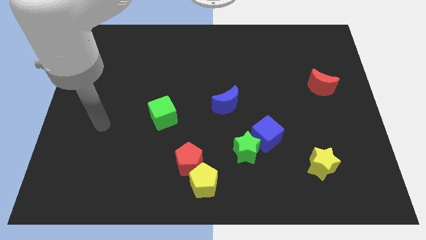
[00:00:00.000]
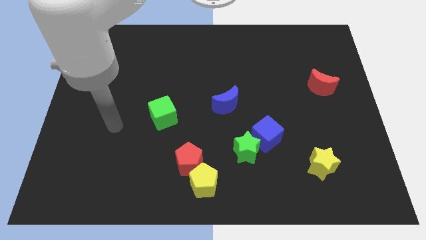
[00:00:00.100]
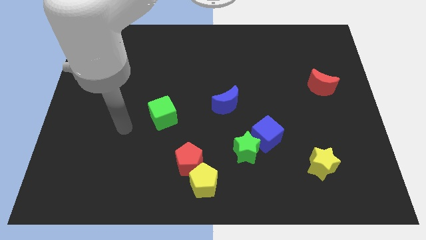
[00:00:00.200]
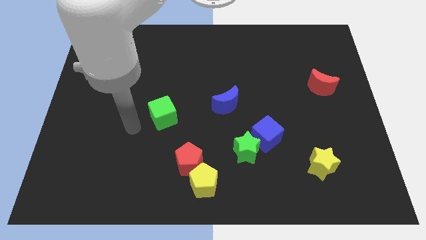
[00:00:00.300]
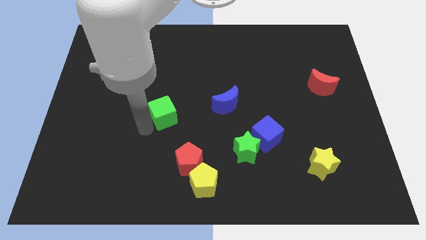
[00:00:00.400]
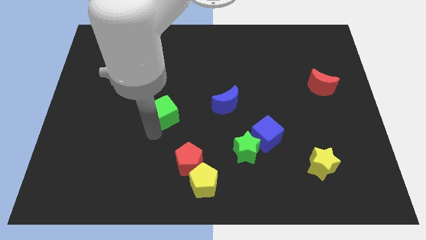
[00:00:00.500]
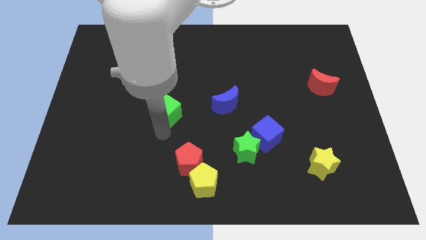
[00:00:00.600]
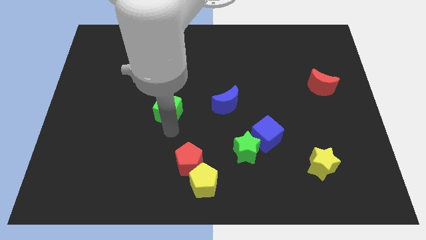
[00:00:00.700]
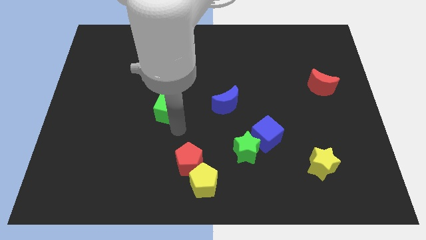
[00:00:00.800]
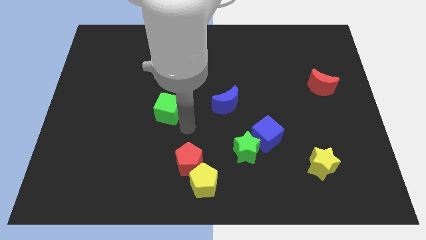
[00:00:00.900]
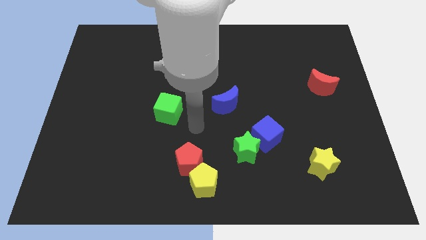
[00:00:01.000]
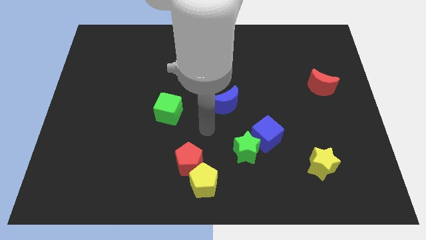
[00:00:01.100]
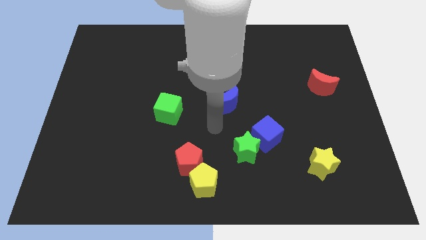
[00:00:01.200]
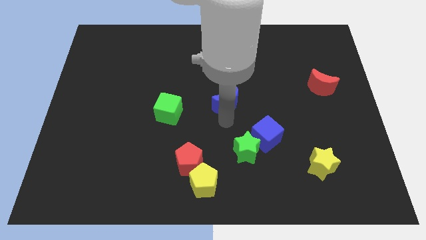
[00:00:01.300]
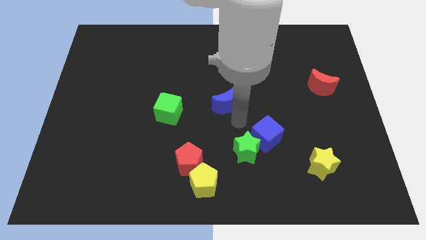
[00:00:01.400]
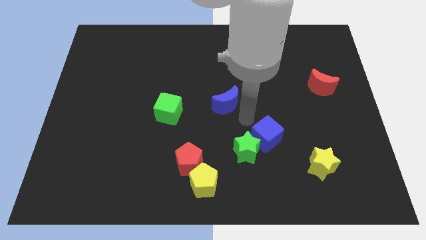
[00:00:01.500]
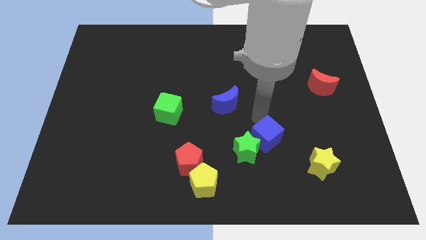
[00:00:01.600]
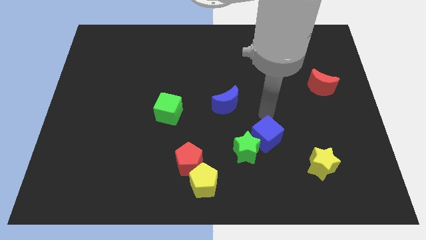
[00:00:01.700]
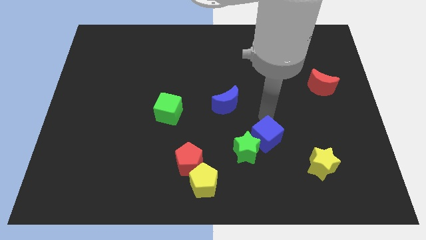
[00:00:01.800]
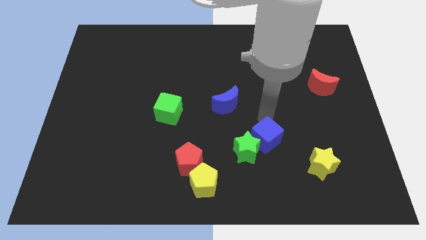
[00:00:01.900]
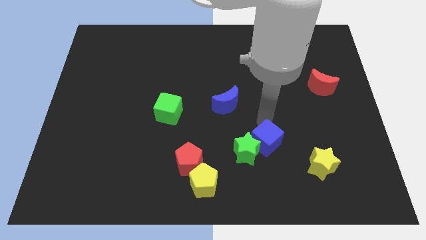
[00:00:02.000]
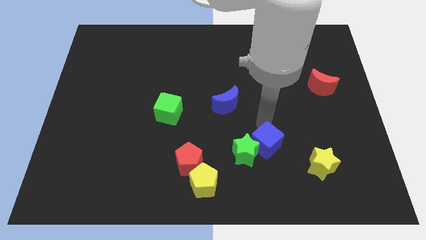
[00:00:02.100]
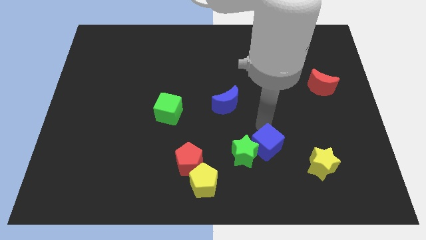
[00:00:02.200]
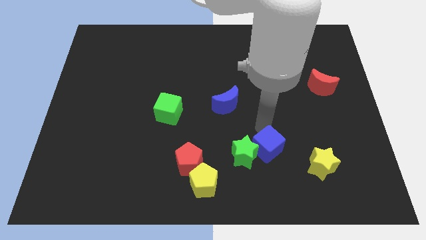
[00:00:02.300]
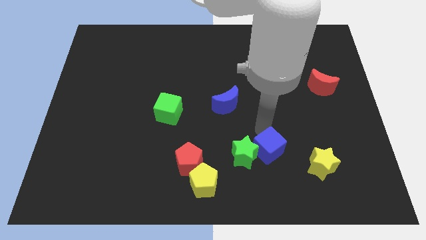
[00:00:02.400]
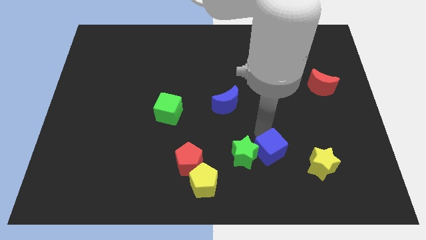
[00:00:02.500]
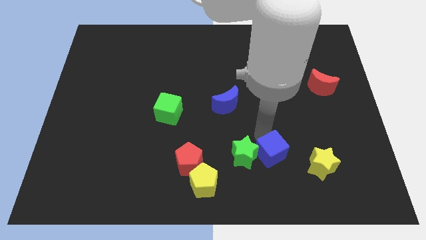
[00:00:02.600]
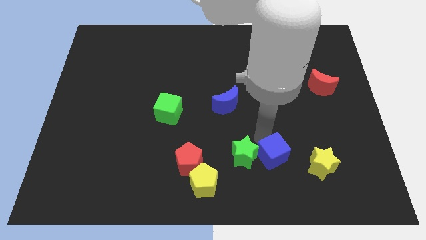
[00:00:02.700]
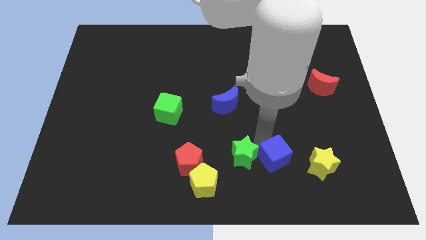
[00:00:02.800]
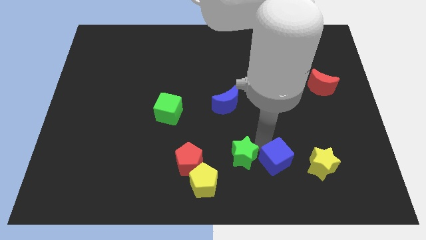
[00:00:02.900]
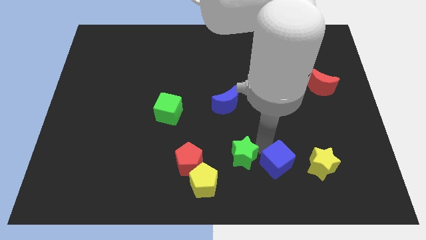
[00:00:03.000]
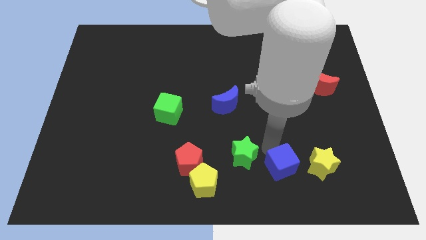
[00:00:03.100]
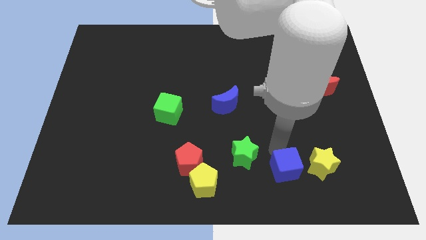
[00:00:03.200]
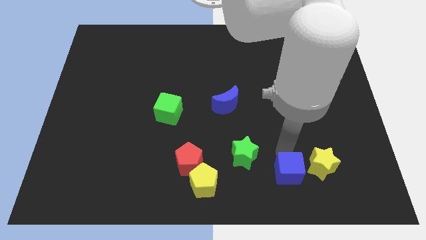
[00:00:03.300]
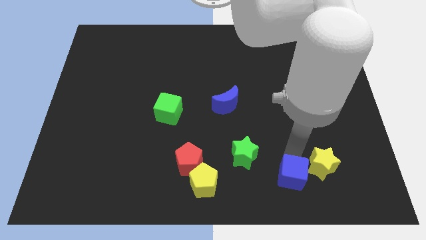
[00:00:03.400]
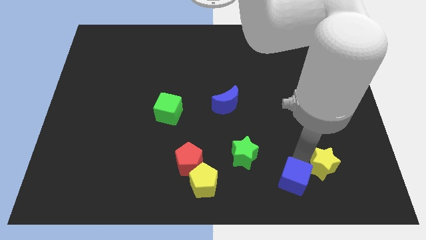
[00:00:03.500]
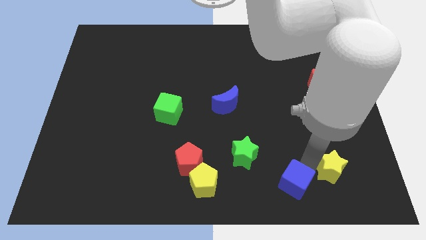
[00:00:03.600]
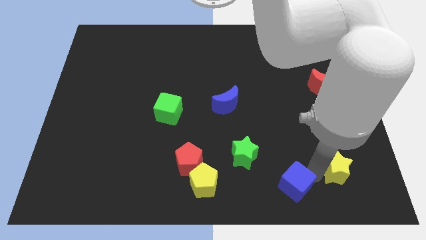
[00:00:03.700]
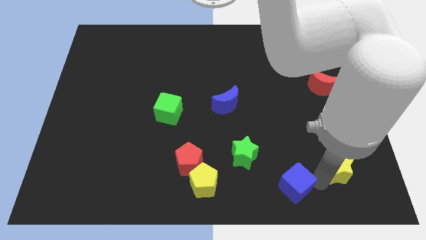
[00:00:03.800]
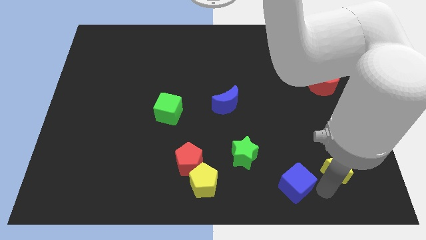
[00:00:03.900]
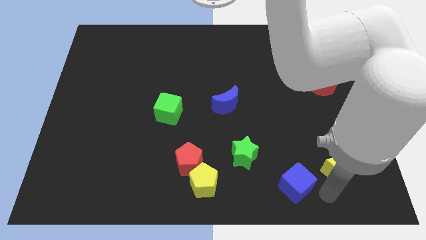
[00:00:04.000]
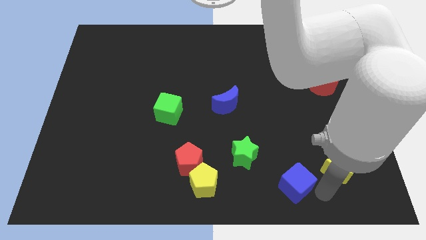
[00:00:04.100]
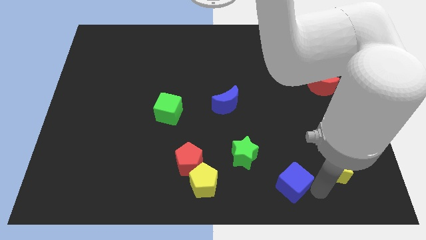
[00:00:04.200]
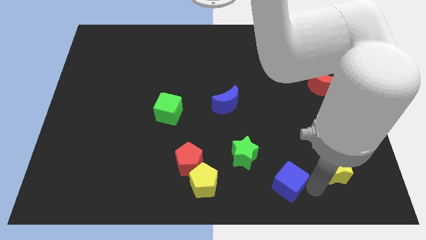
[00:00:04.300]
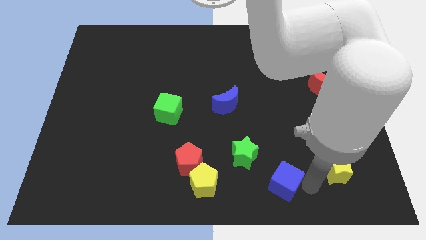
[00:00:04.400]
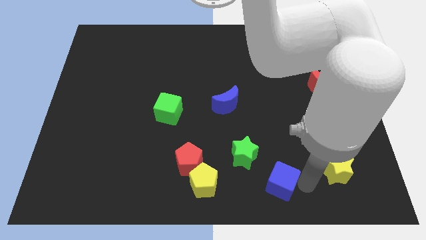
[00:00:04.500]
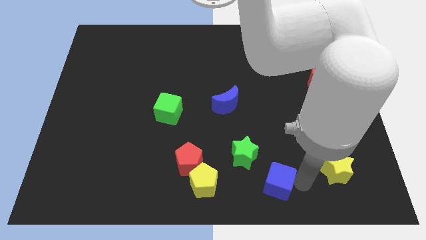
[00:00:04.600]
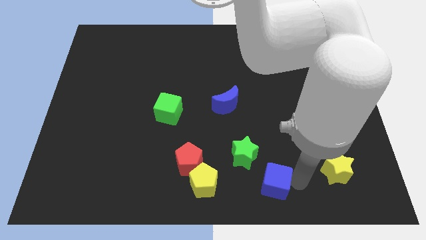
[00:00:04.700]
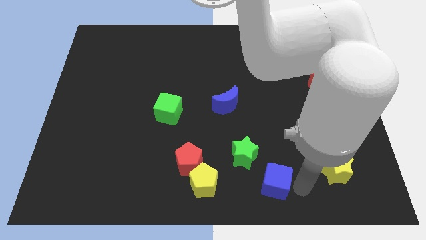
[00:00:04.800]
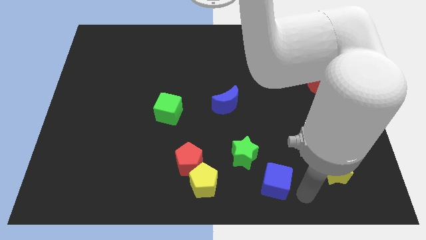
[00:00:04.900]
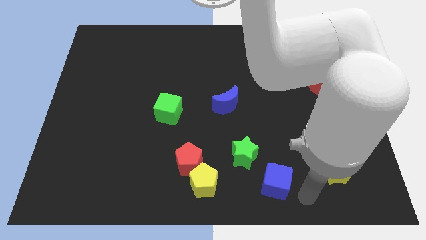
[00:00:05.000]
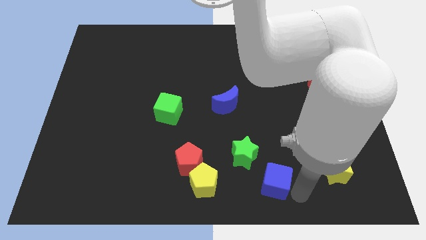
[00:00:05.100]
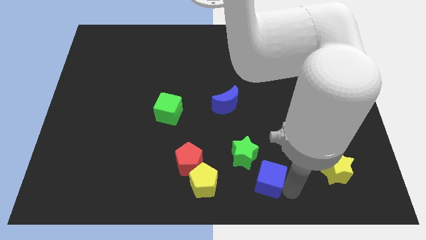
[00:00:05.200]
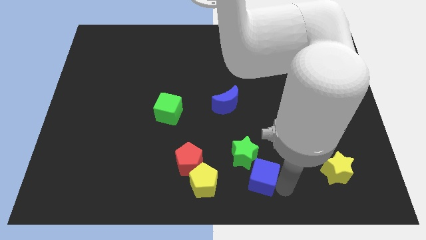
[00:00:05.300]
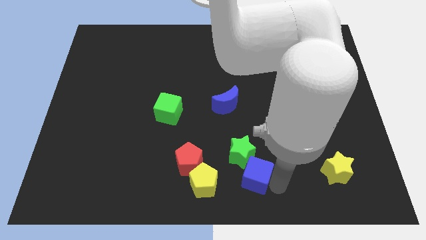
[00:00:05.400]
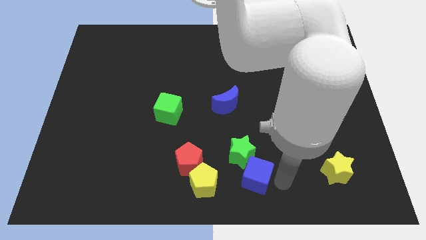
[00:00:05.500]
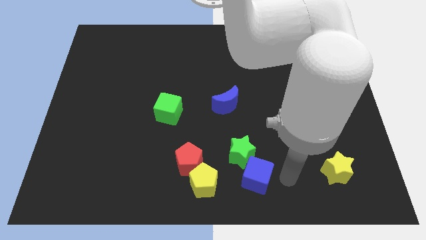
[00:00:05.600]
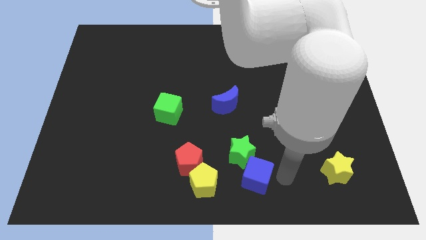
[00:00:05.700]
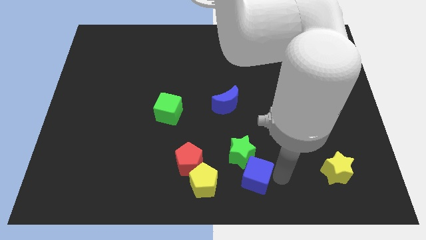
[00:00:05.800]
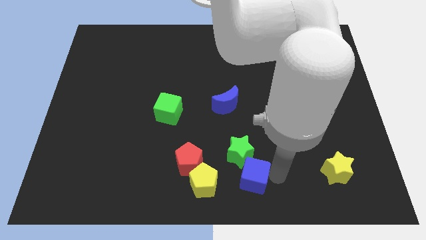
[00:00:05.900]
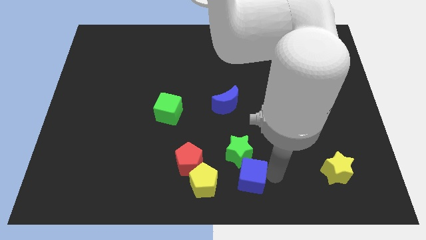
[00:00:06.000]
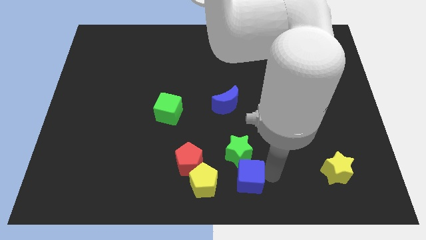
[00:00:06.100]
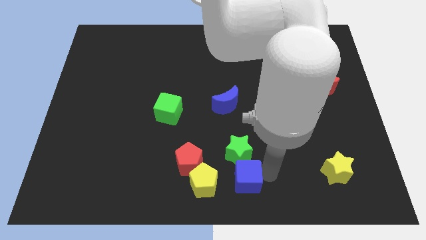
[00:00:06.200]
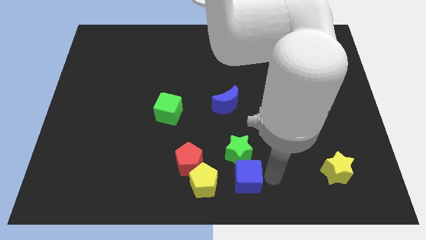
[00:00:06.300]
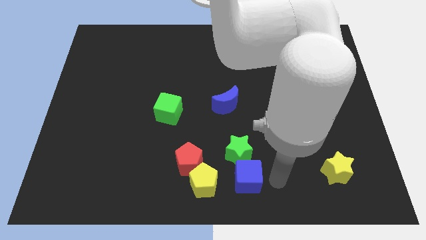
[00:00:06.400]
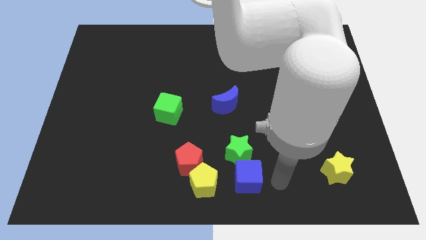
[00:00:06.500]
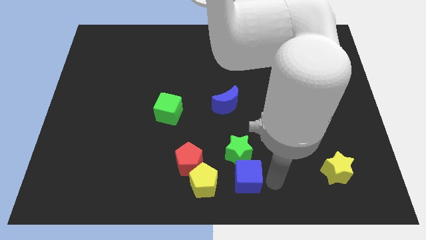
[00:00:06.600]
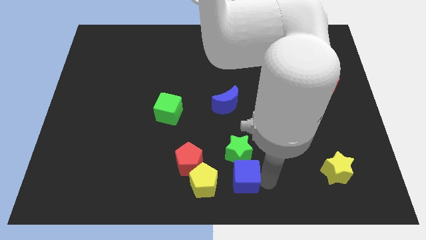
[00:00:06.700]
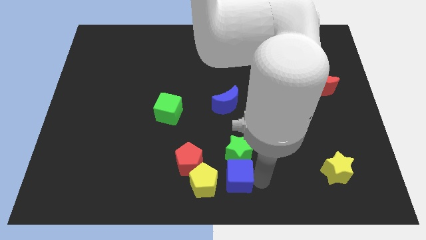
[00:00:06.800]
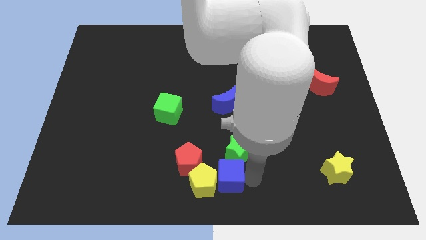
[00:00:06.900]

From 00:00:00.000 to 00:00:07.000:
put the blue cube close to the yellow pentagon
